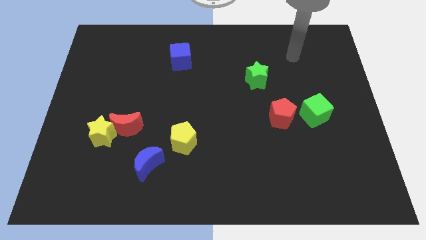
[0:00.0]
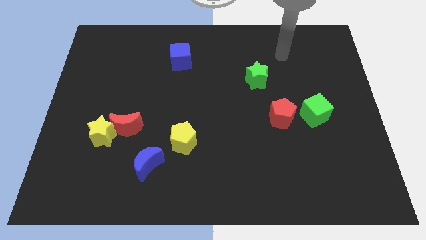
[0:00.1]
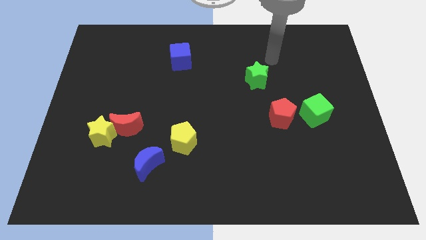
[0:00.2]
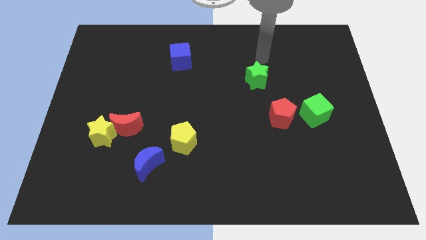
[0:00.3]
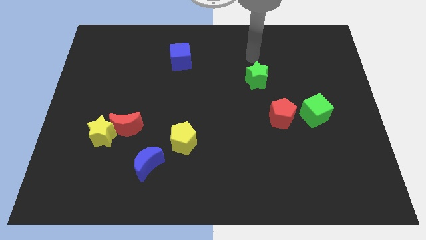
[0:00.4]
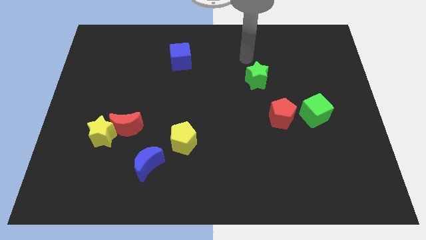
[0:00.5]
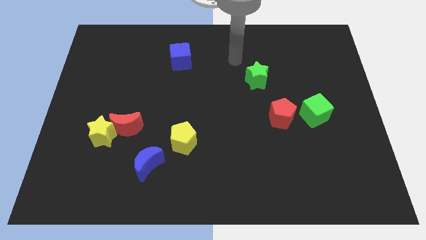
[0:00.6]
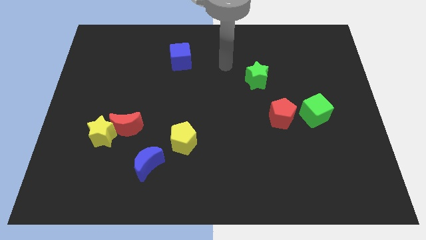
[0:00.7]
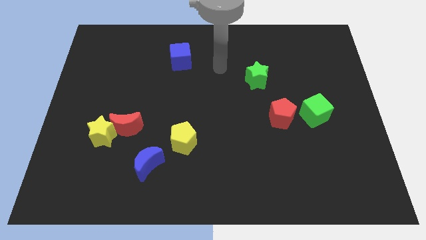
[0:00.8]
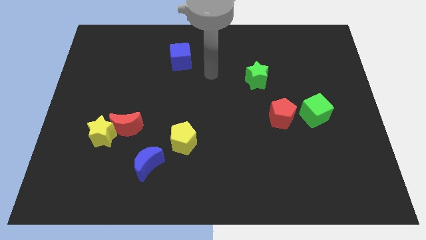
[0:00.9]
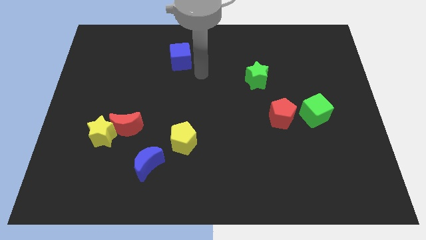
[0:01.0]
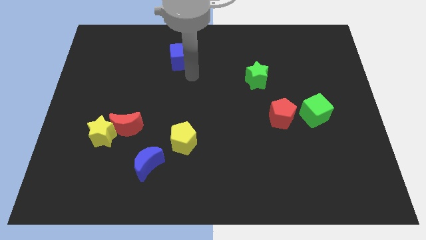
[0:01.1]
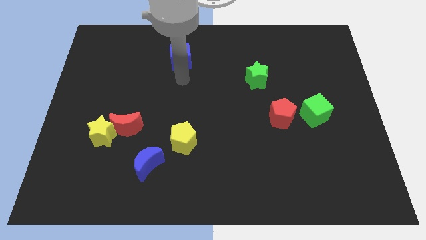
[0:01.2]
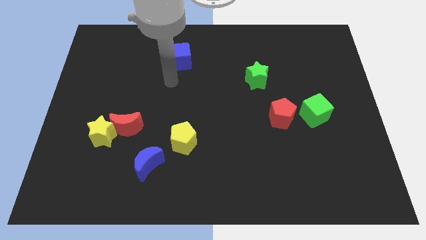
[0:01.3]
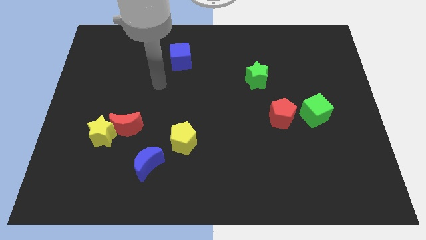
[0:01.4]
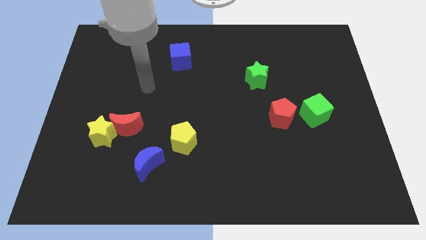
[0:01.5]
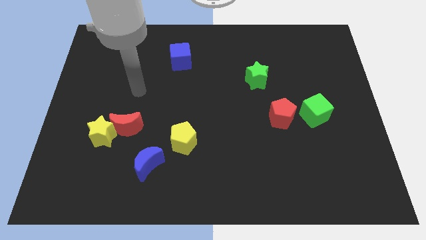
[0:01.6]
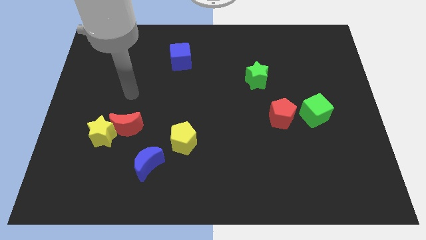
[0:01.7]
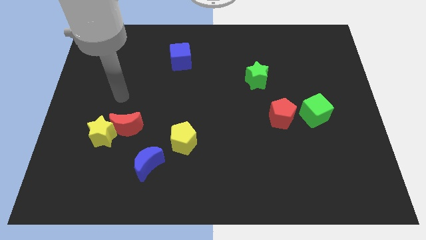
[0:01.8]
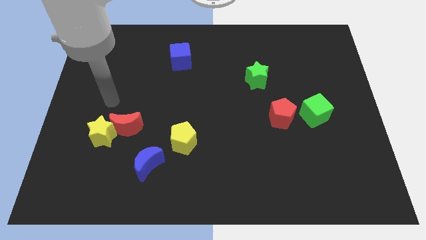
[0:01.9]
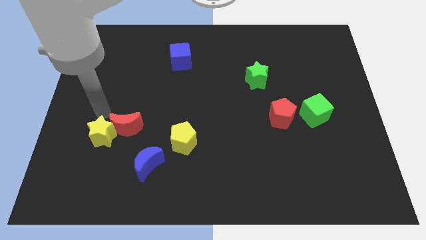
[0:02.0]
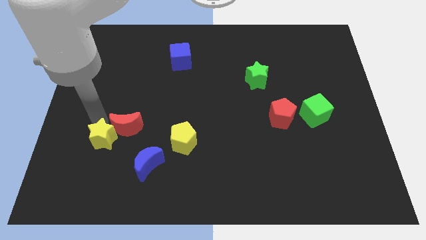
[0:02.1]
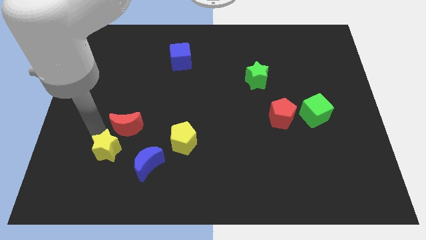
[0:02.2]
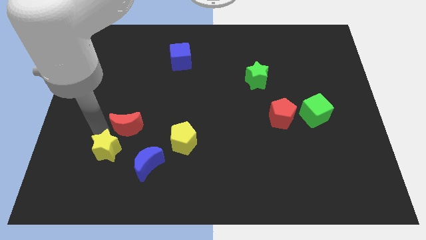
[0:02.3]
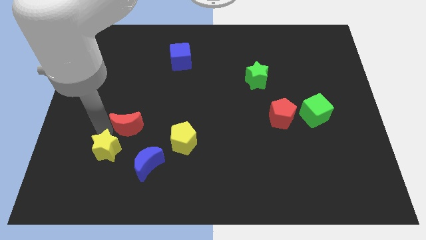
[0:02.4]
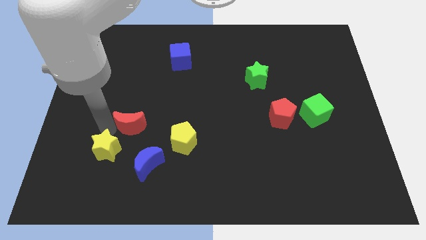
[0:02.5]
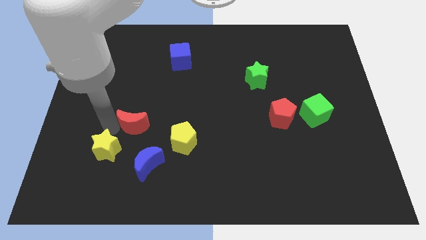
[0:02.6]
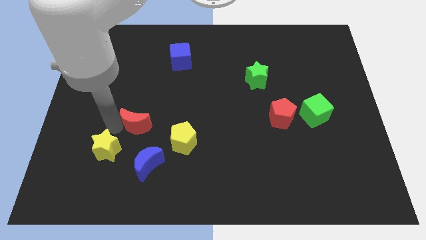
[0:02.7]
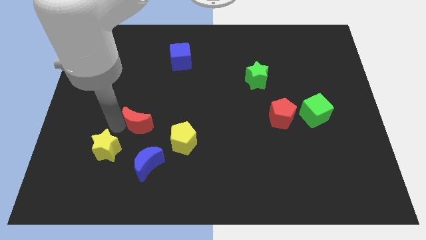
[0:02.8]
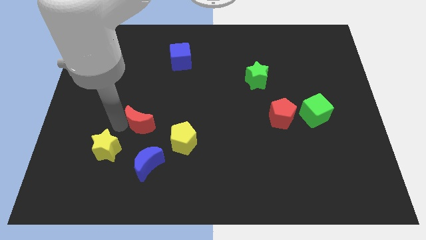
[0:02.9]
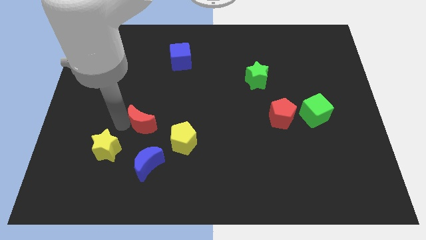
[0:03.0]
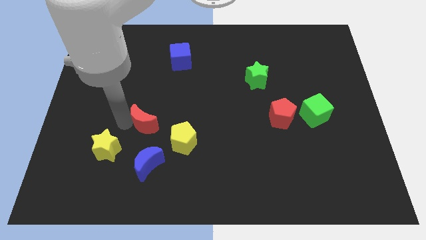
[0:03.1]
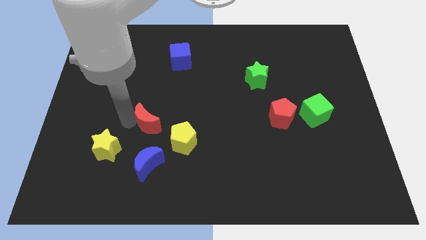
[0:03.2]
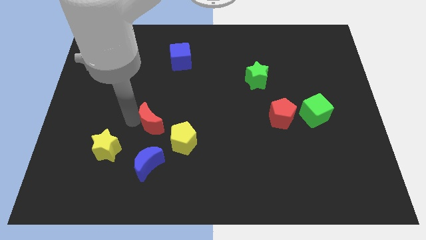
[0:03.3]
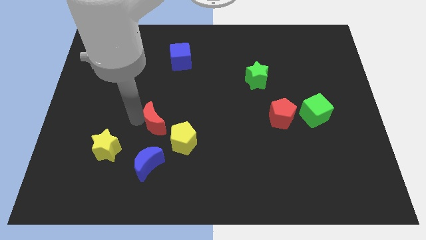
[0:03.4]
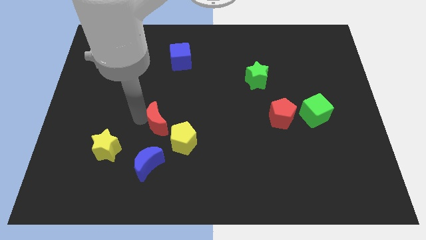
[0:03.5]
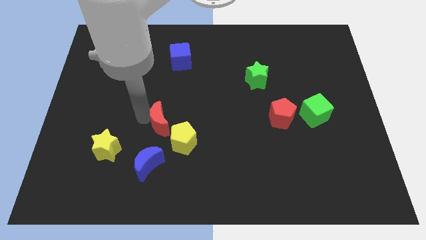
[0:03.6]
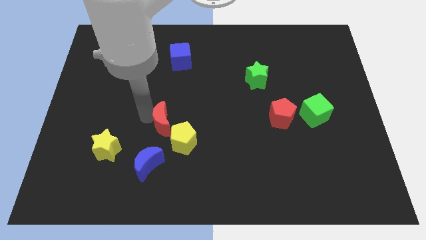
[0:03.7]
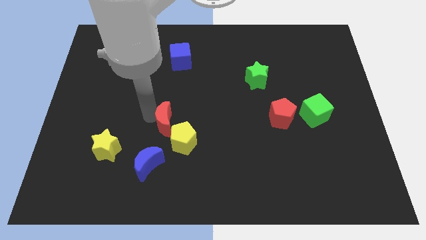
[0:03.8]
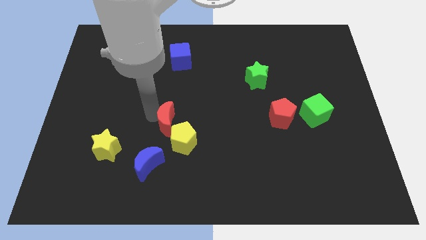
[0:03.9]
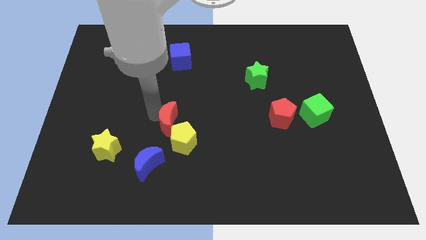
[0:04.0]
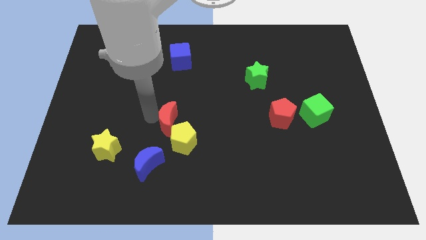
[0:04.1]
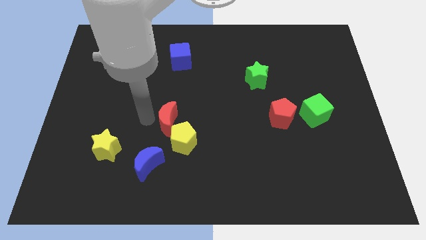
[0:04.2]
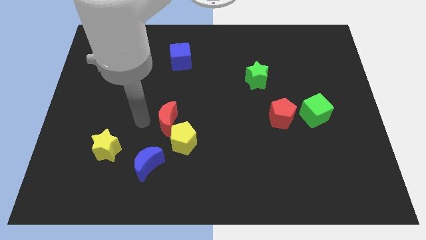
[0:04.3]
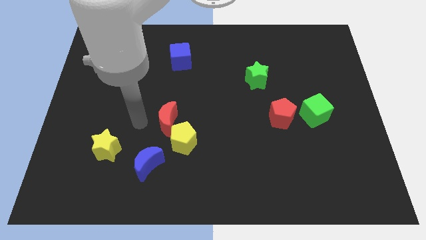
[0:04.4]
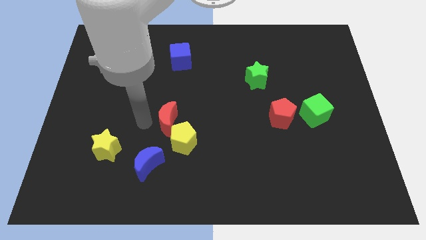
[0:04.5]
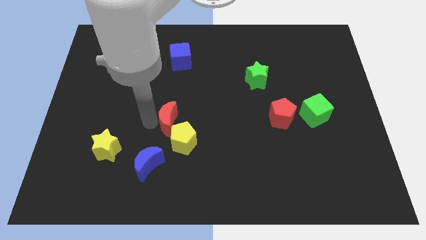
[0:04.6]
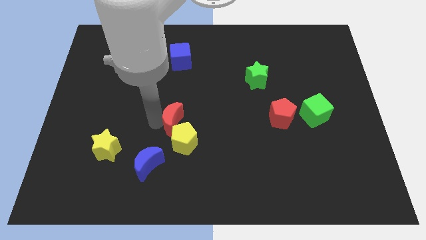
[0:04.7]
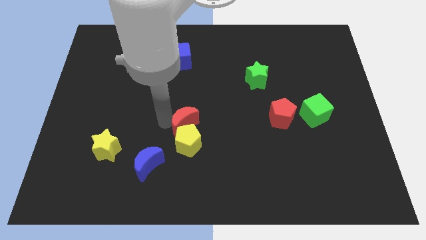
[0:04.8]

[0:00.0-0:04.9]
slide the red moon to the top right of the yellow pentagon

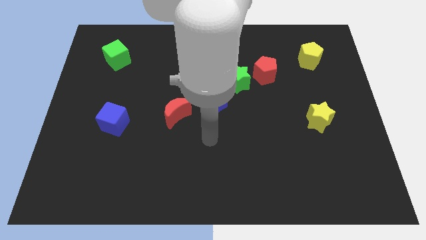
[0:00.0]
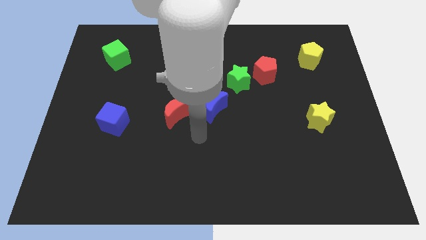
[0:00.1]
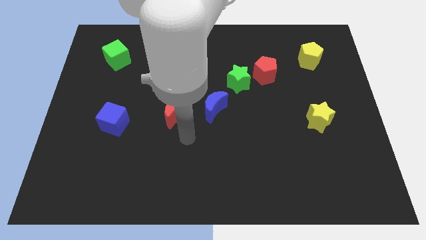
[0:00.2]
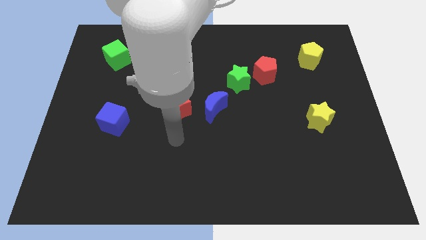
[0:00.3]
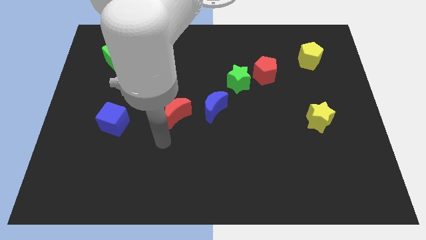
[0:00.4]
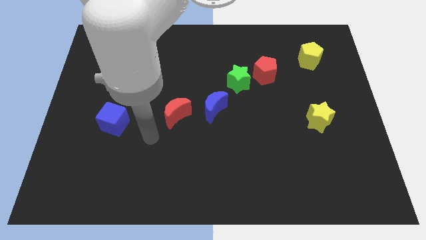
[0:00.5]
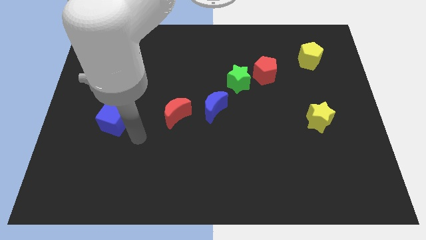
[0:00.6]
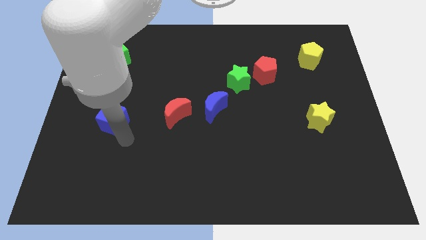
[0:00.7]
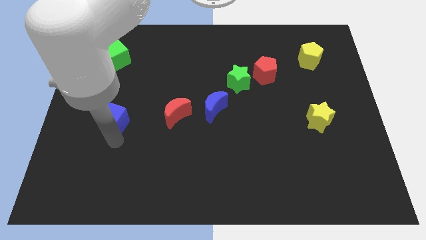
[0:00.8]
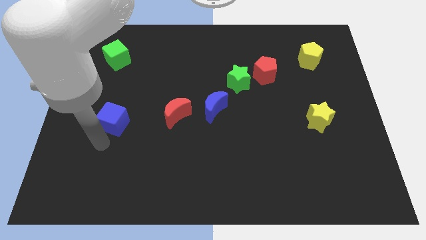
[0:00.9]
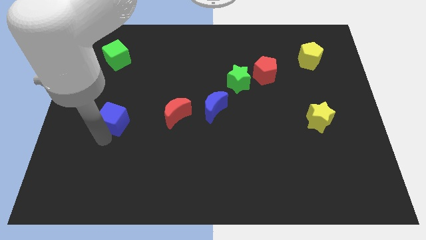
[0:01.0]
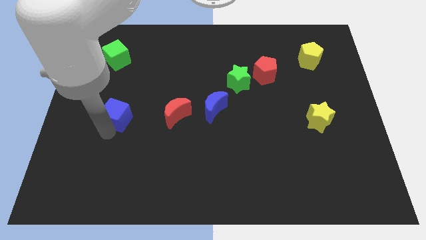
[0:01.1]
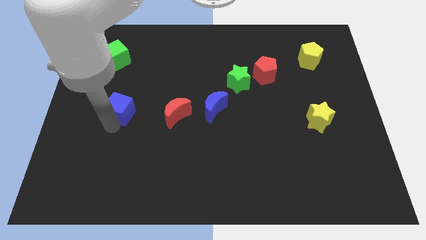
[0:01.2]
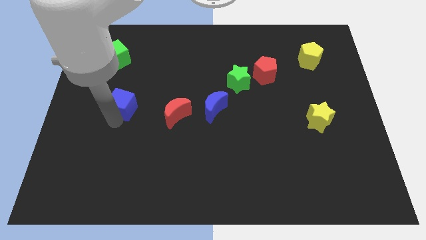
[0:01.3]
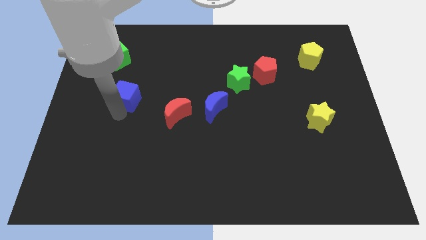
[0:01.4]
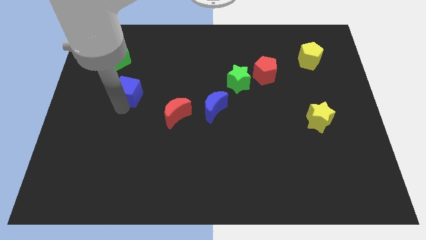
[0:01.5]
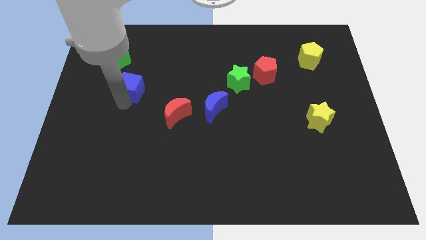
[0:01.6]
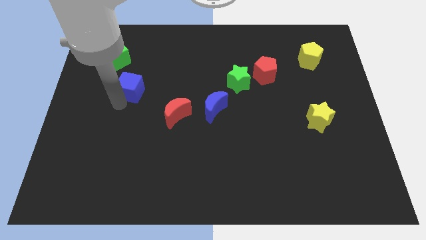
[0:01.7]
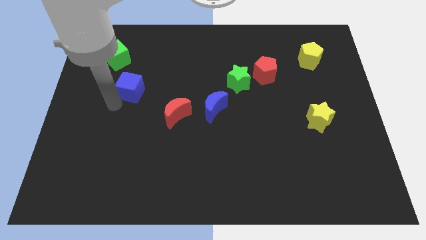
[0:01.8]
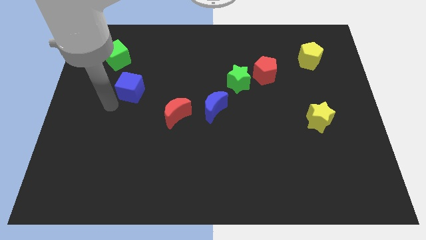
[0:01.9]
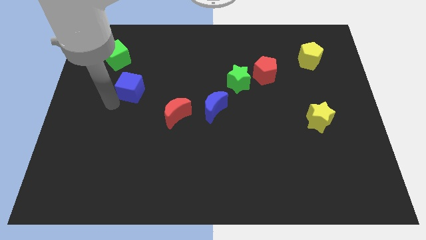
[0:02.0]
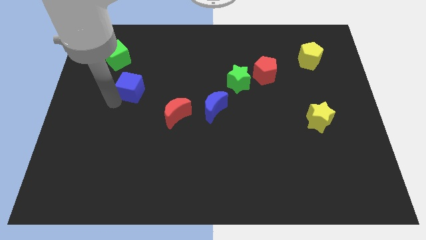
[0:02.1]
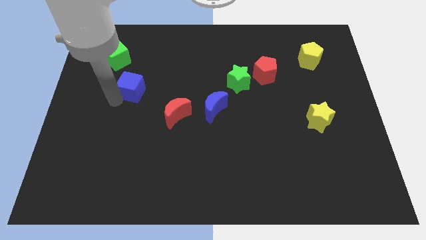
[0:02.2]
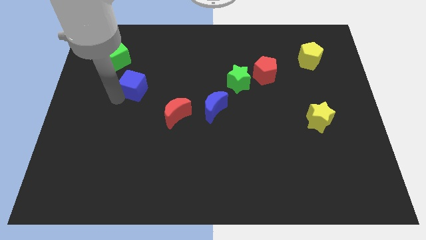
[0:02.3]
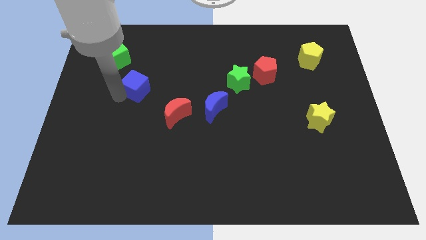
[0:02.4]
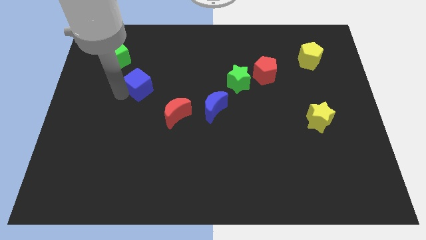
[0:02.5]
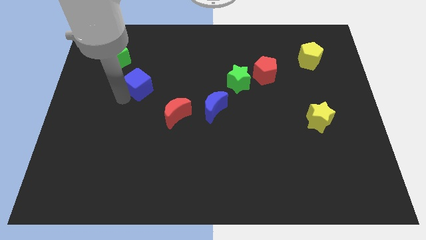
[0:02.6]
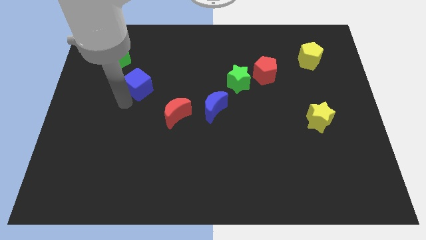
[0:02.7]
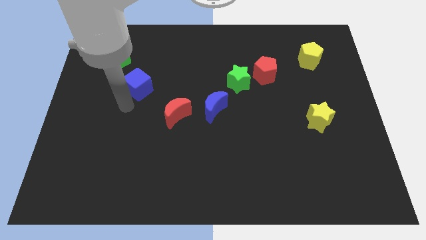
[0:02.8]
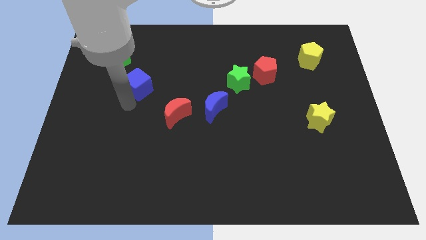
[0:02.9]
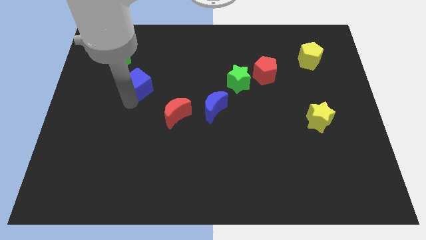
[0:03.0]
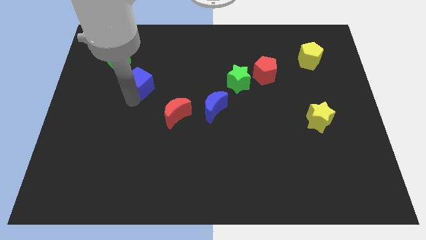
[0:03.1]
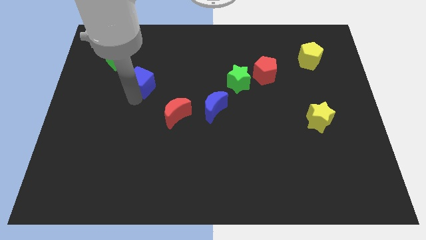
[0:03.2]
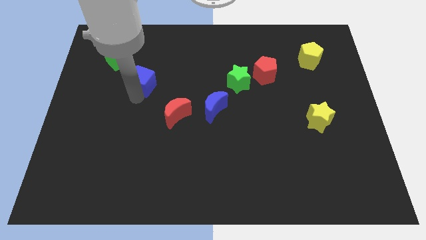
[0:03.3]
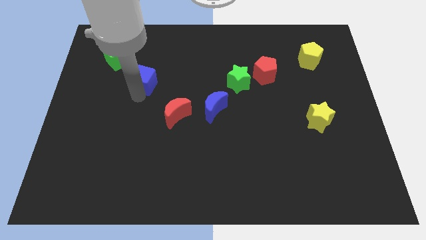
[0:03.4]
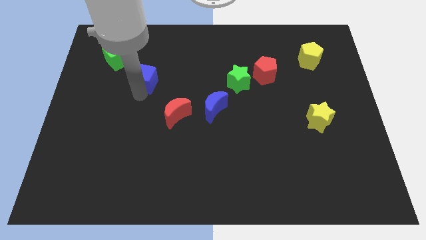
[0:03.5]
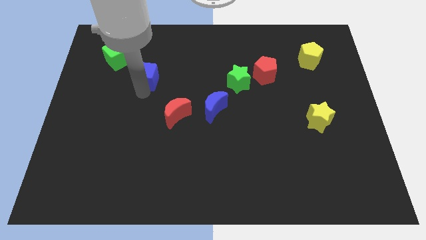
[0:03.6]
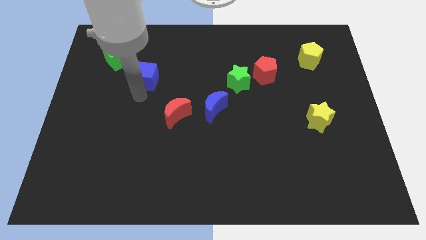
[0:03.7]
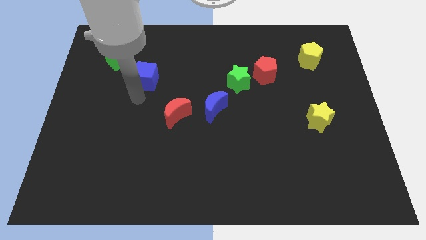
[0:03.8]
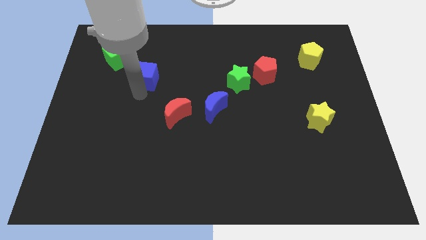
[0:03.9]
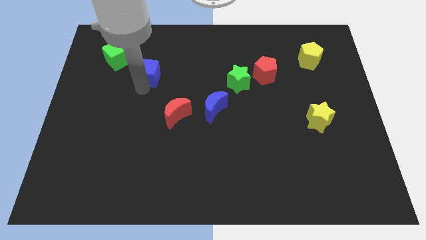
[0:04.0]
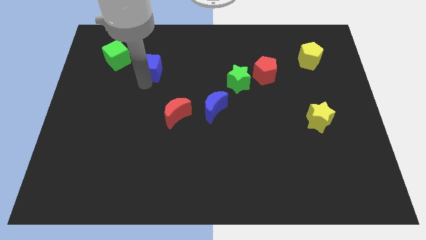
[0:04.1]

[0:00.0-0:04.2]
move the blue cube just right of the green cube
